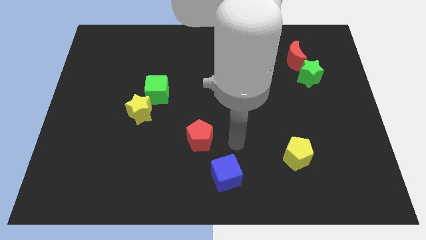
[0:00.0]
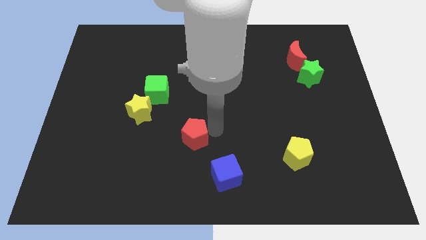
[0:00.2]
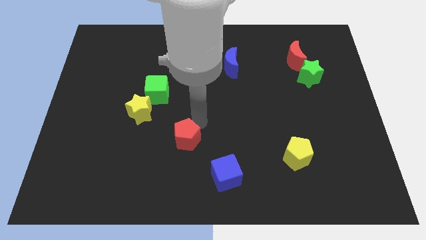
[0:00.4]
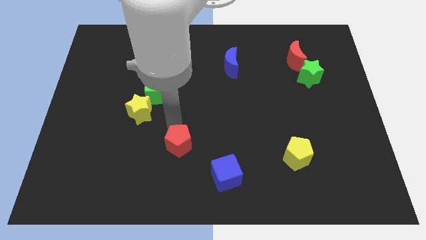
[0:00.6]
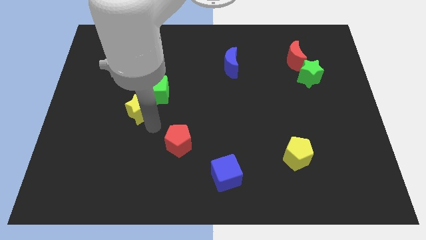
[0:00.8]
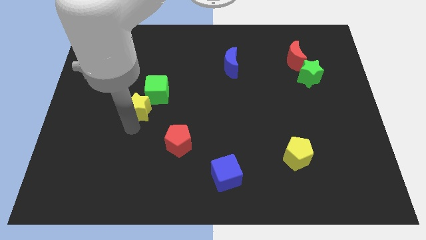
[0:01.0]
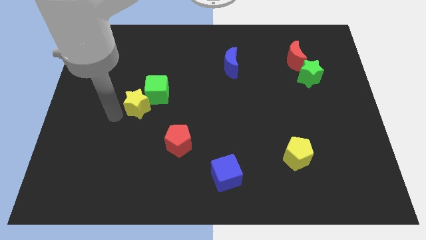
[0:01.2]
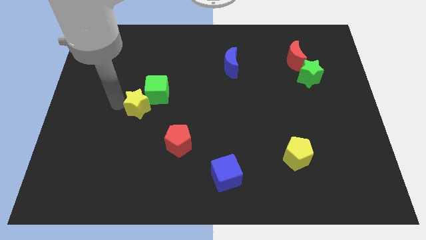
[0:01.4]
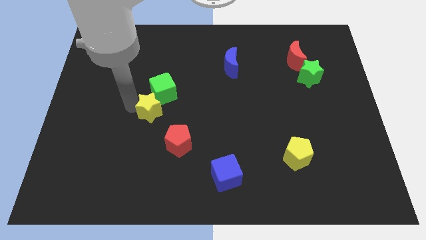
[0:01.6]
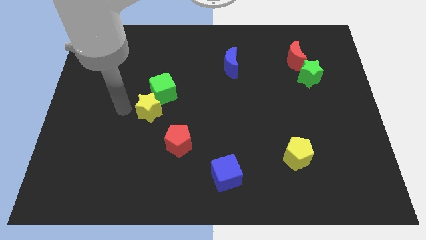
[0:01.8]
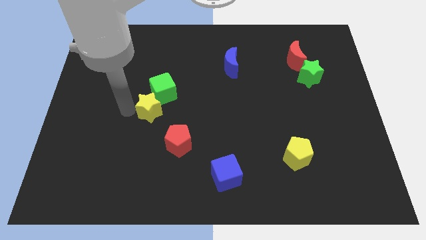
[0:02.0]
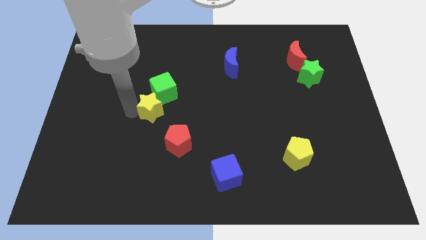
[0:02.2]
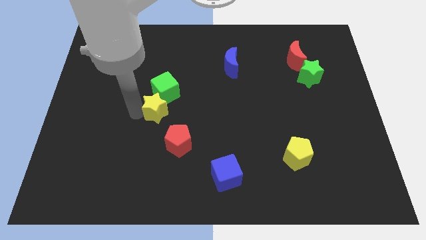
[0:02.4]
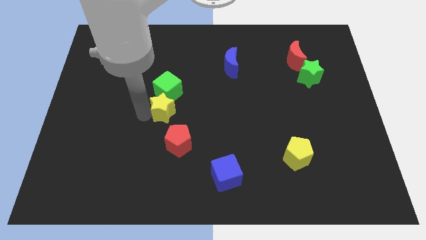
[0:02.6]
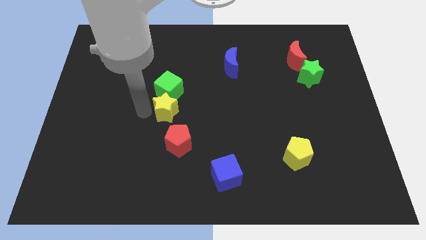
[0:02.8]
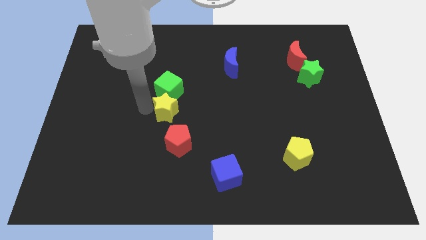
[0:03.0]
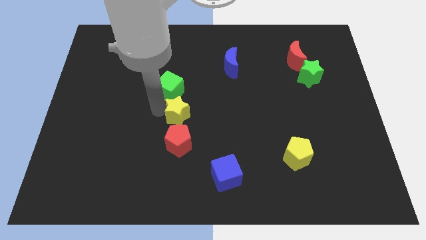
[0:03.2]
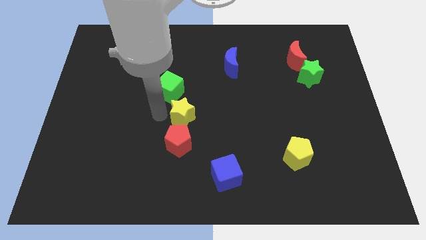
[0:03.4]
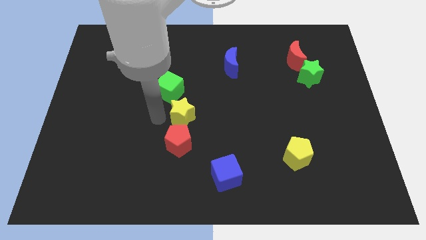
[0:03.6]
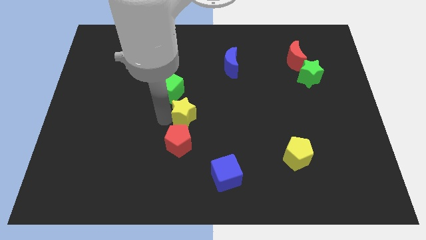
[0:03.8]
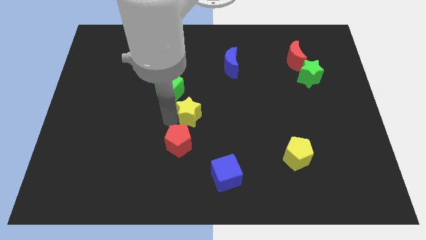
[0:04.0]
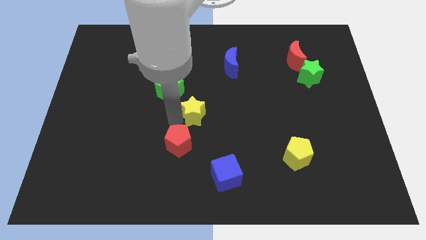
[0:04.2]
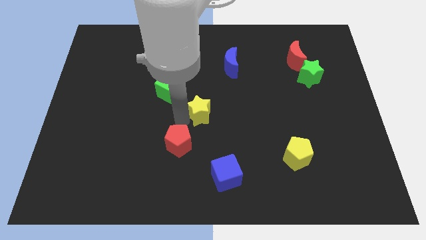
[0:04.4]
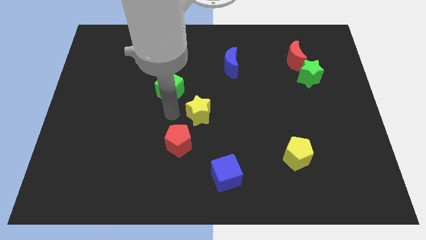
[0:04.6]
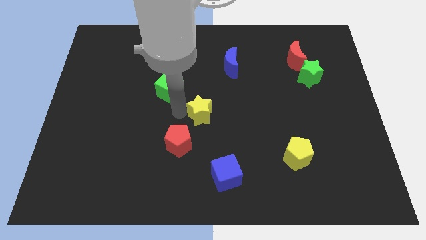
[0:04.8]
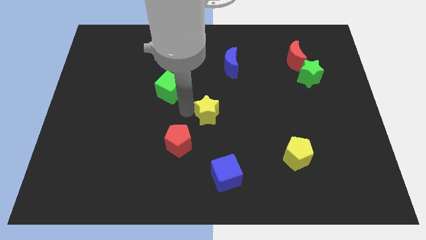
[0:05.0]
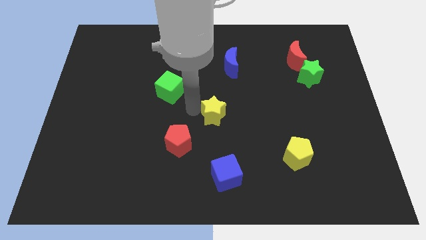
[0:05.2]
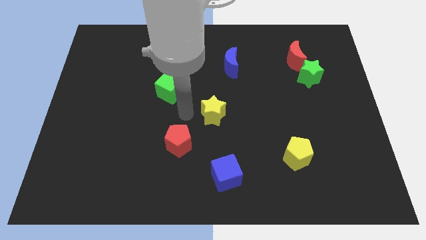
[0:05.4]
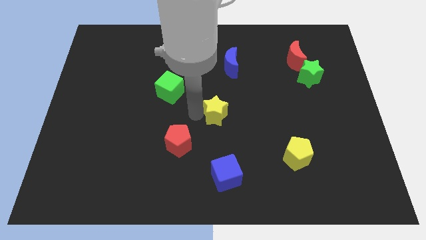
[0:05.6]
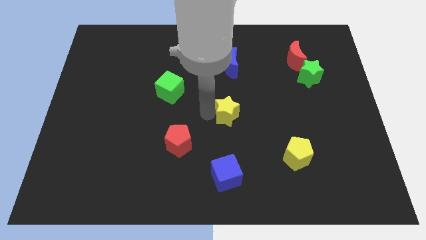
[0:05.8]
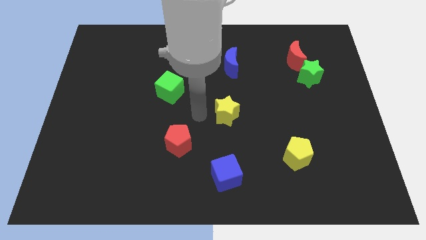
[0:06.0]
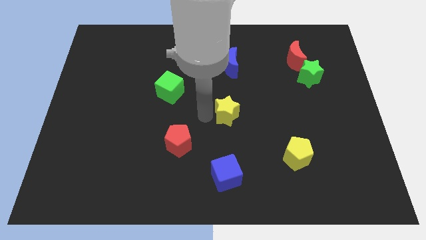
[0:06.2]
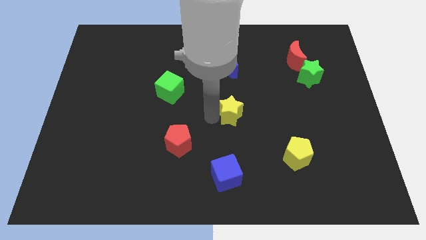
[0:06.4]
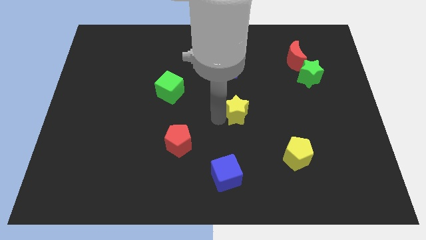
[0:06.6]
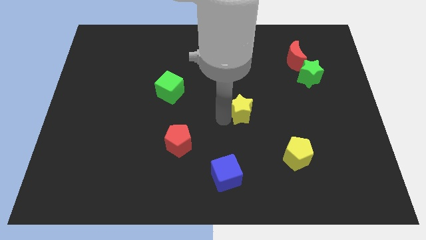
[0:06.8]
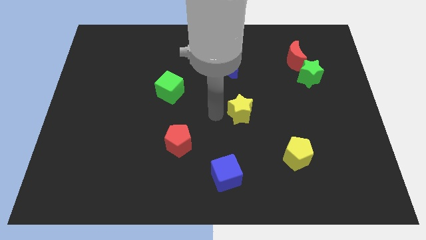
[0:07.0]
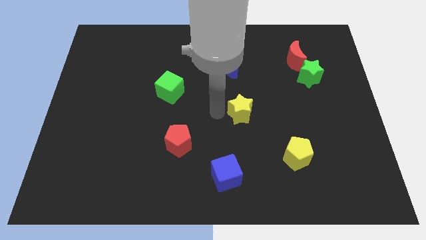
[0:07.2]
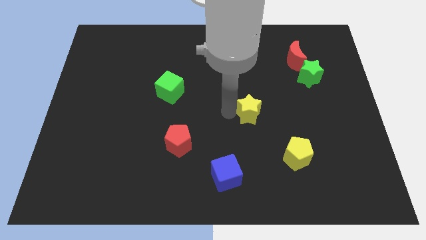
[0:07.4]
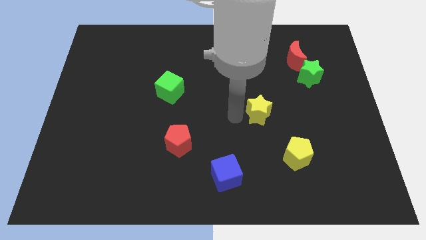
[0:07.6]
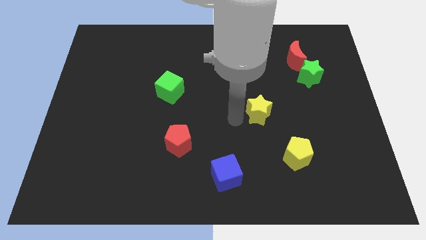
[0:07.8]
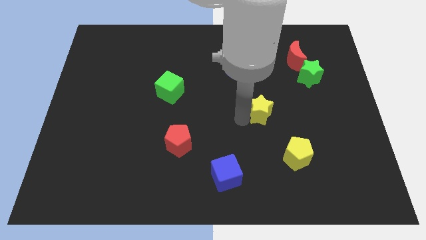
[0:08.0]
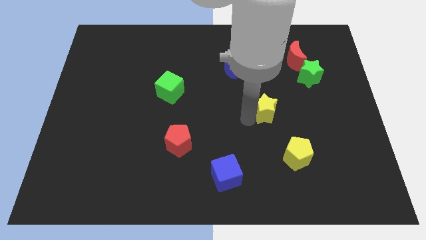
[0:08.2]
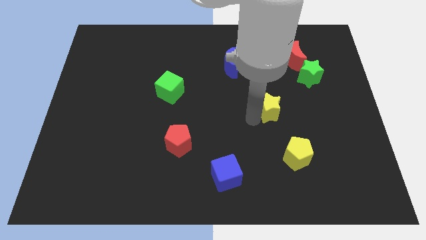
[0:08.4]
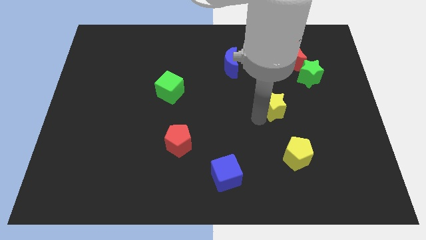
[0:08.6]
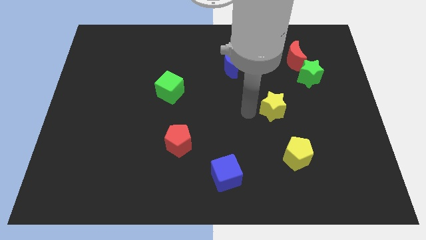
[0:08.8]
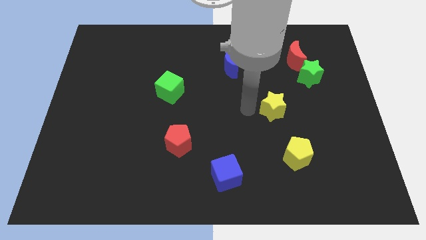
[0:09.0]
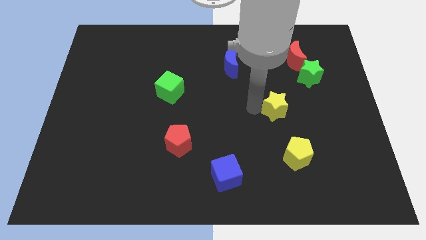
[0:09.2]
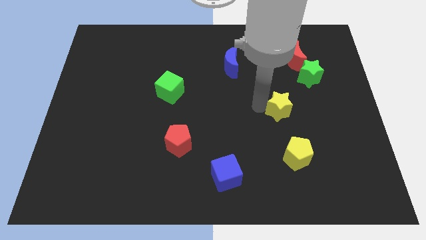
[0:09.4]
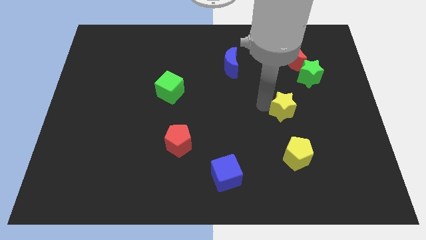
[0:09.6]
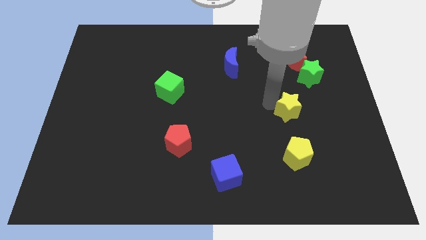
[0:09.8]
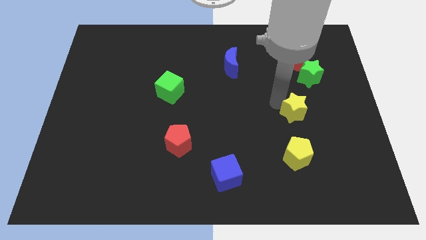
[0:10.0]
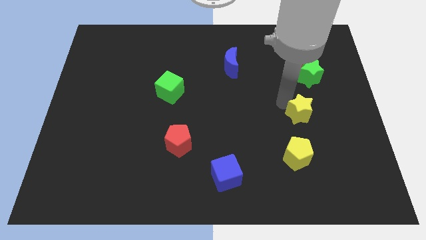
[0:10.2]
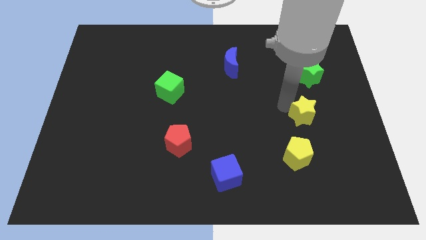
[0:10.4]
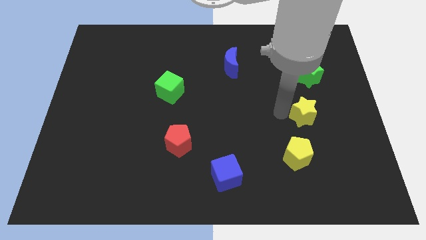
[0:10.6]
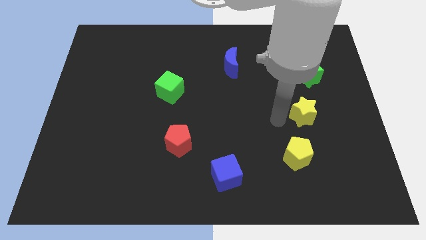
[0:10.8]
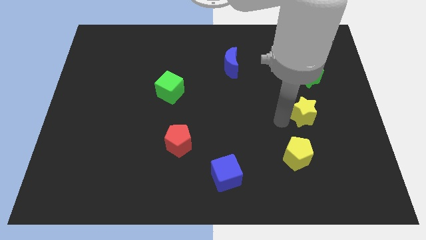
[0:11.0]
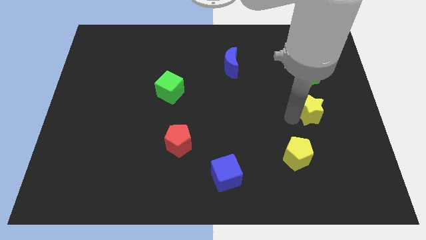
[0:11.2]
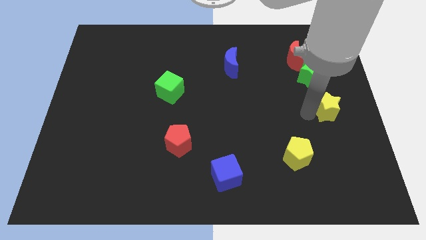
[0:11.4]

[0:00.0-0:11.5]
push the yellow star to the right side of the board

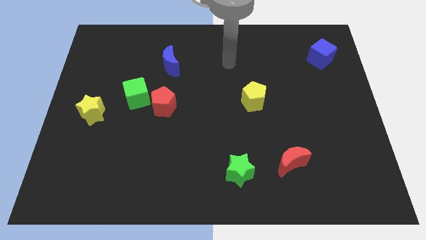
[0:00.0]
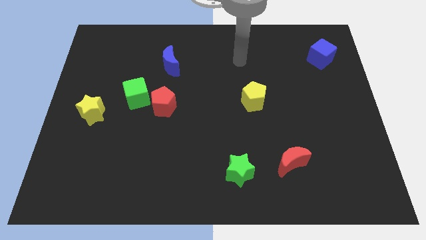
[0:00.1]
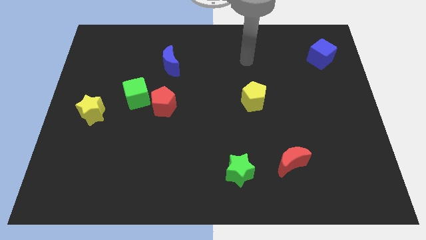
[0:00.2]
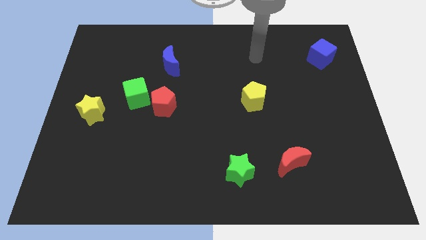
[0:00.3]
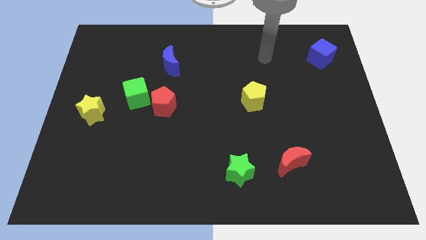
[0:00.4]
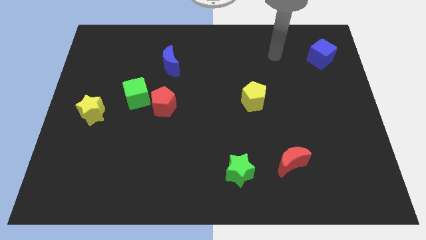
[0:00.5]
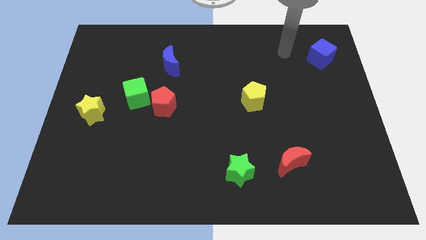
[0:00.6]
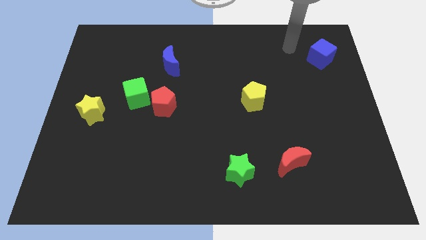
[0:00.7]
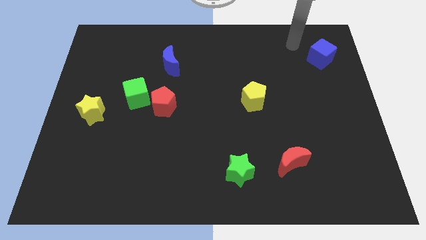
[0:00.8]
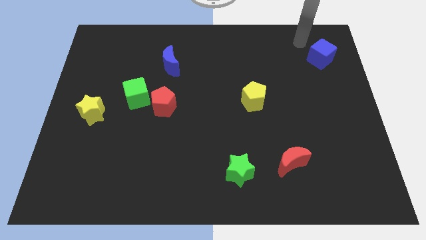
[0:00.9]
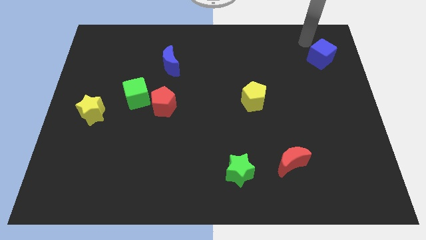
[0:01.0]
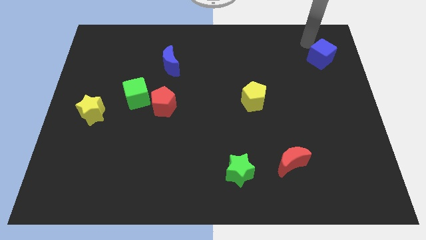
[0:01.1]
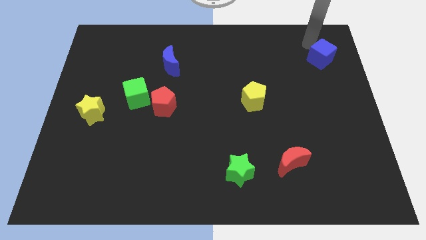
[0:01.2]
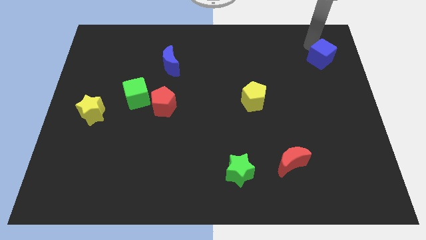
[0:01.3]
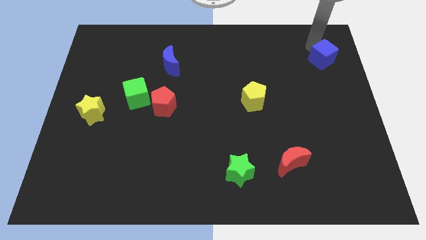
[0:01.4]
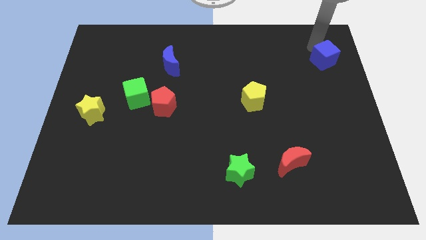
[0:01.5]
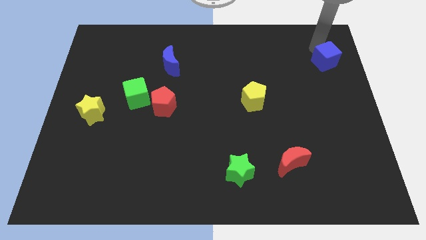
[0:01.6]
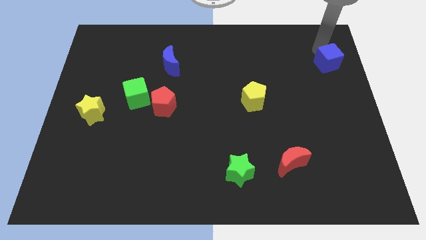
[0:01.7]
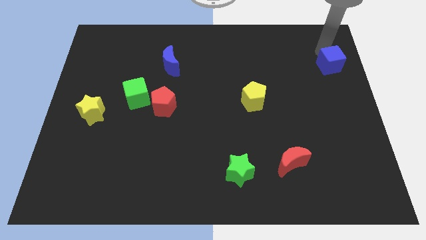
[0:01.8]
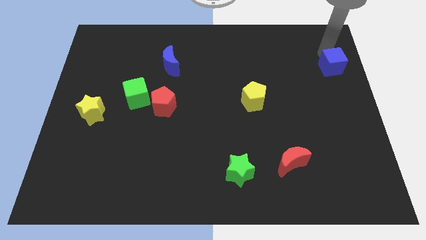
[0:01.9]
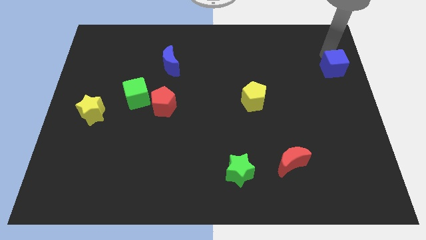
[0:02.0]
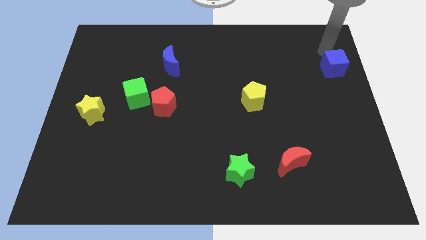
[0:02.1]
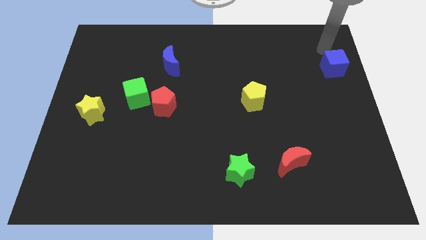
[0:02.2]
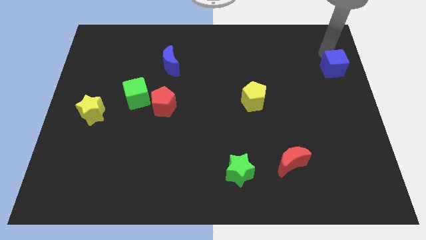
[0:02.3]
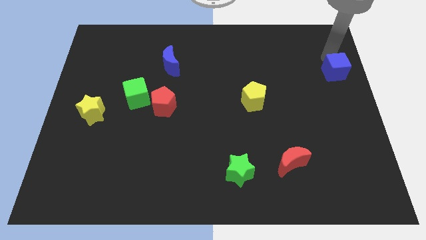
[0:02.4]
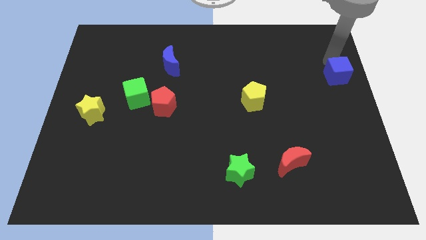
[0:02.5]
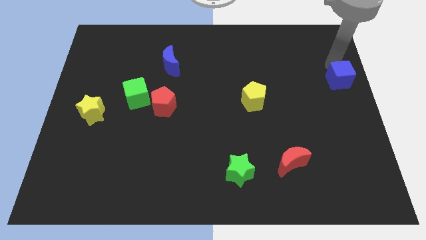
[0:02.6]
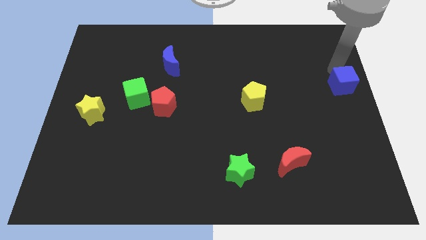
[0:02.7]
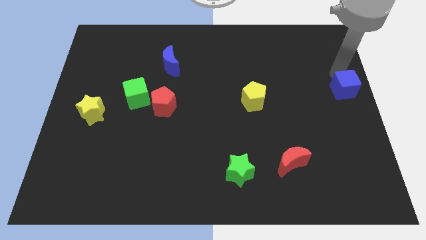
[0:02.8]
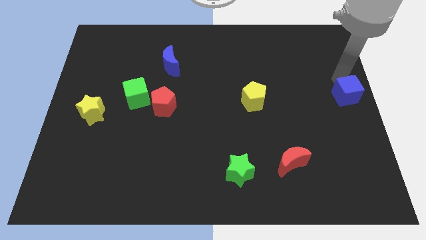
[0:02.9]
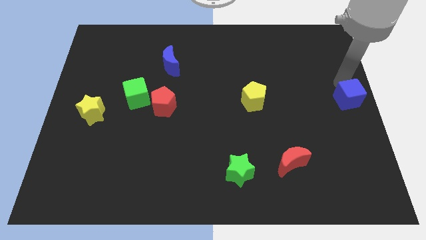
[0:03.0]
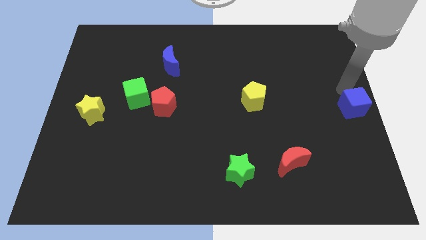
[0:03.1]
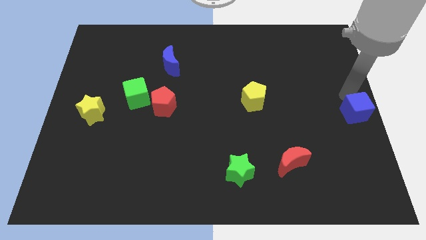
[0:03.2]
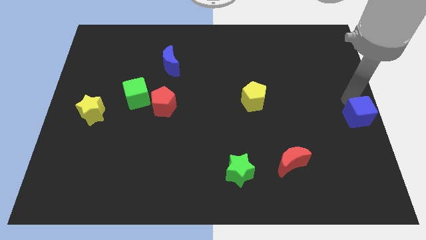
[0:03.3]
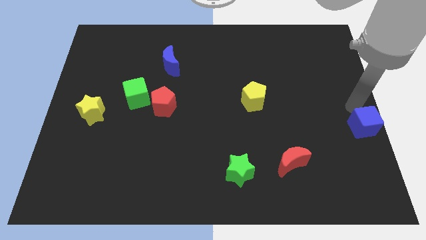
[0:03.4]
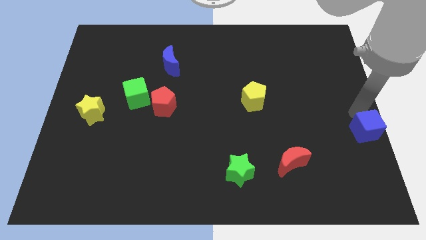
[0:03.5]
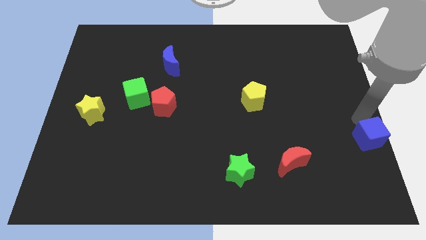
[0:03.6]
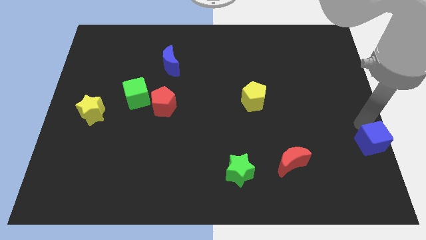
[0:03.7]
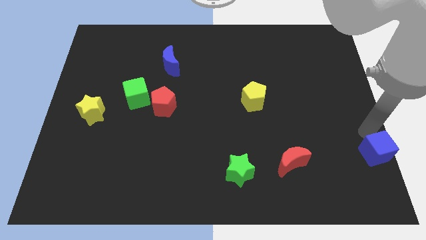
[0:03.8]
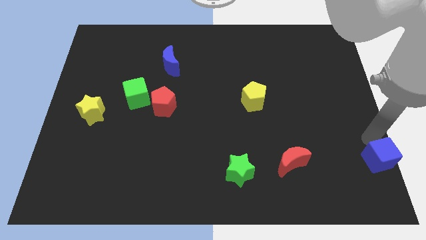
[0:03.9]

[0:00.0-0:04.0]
put the blue cube to the lower right corner
